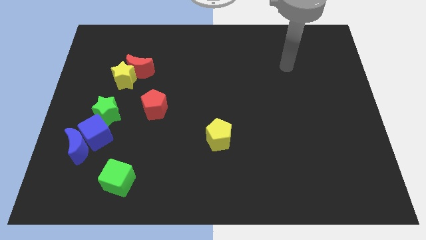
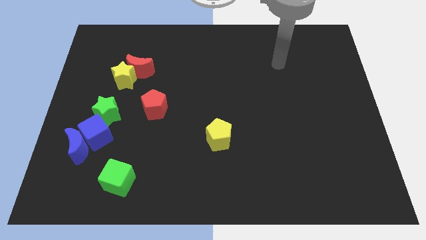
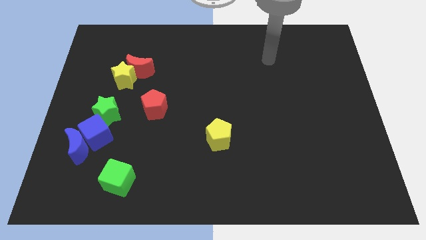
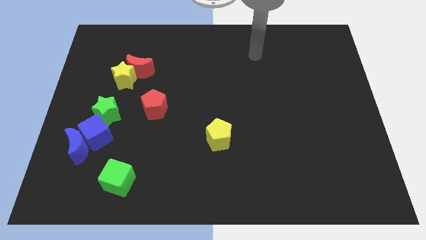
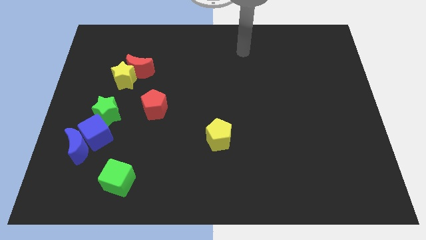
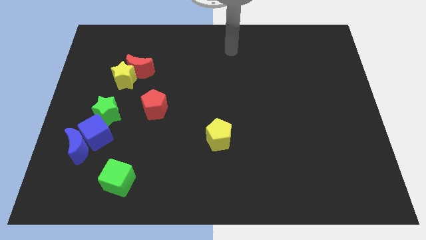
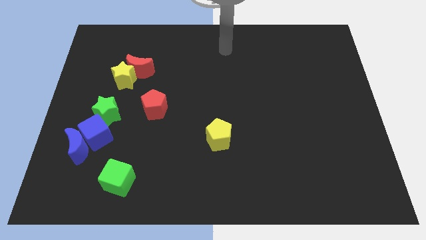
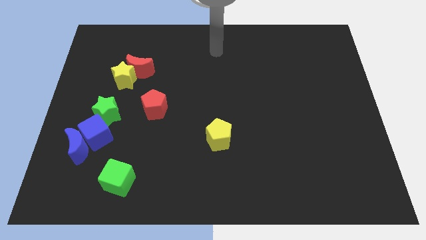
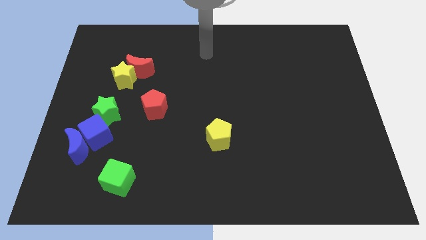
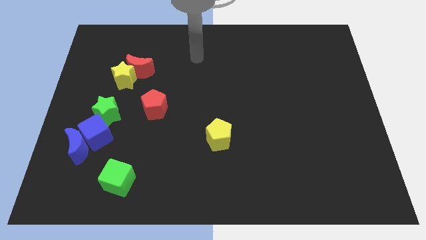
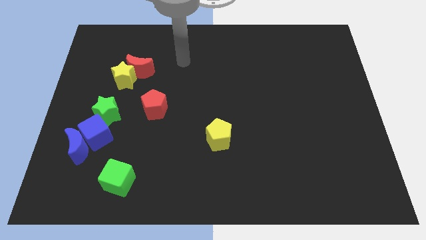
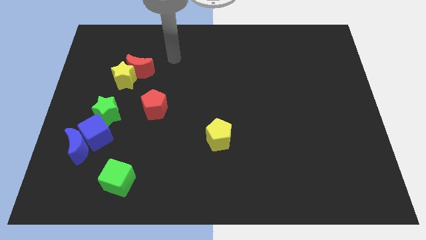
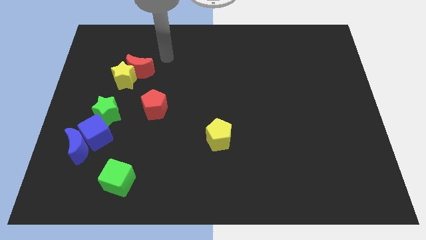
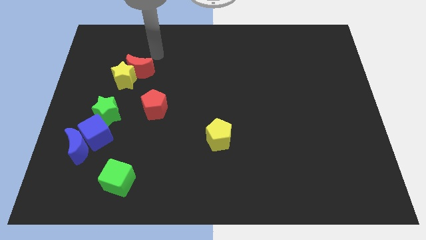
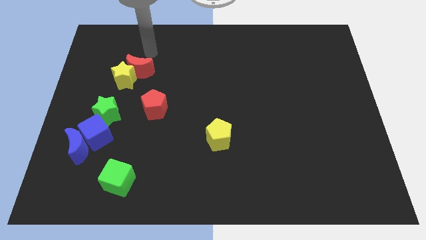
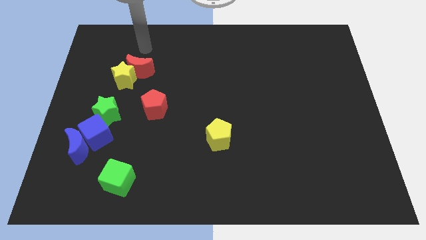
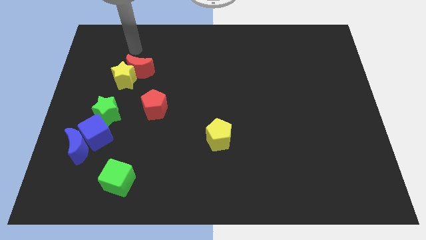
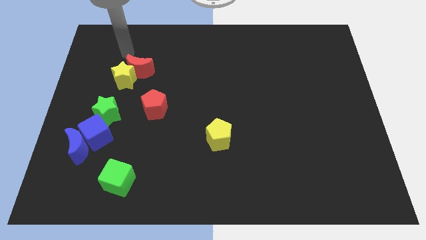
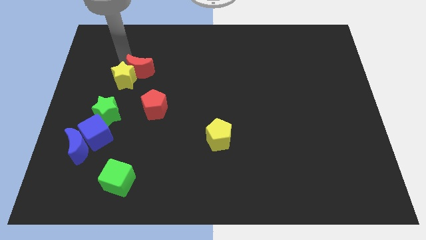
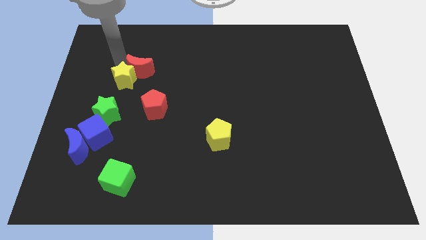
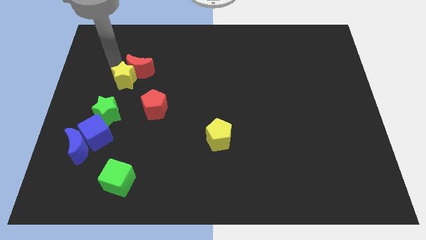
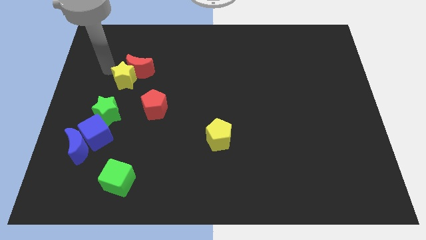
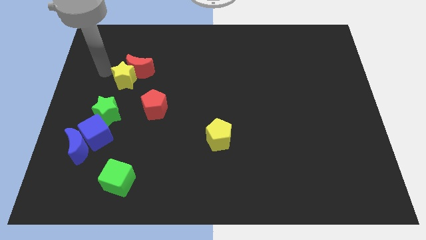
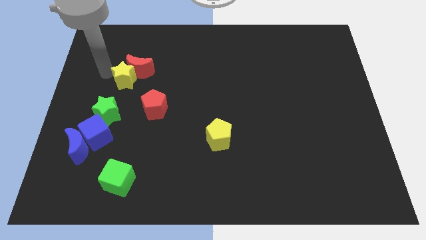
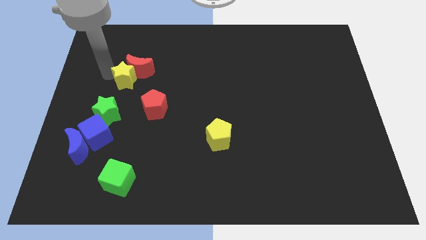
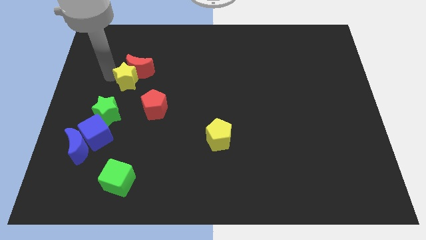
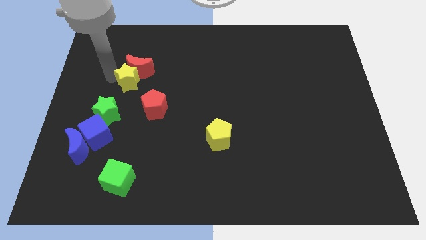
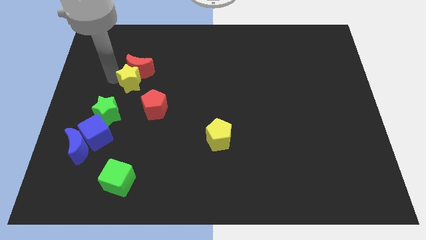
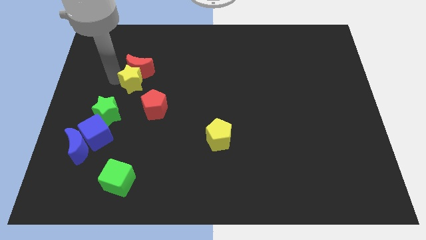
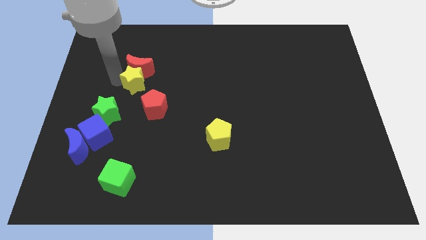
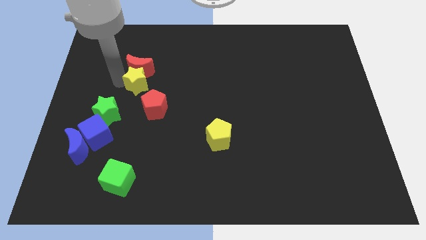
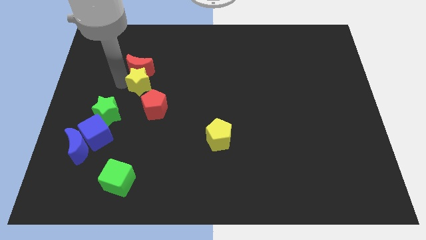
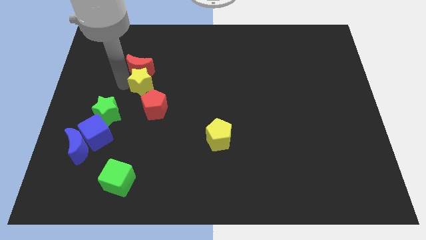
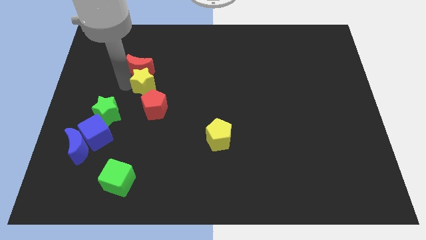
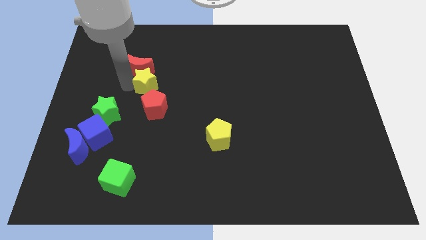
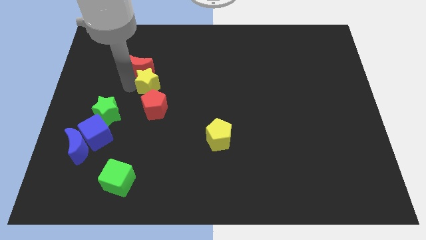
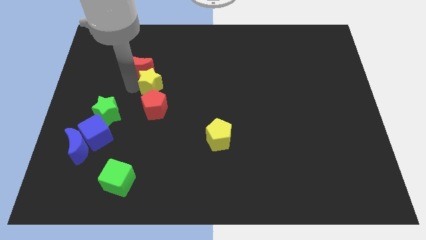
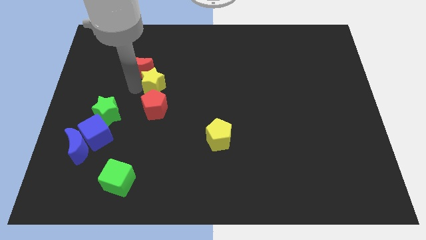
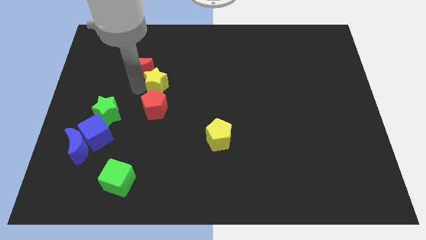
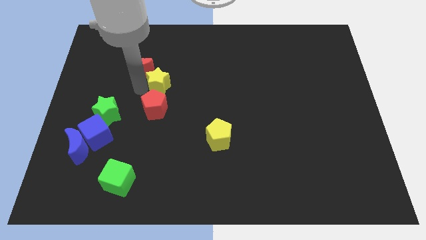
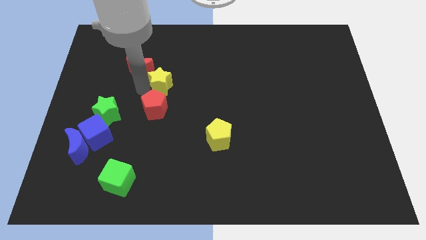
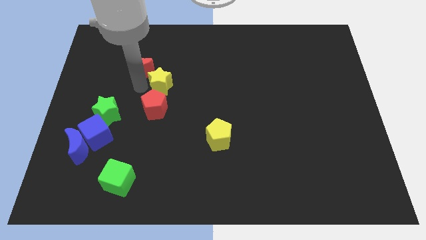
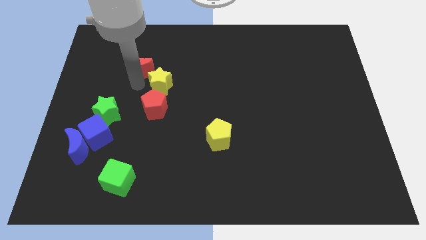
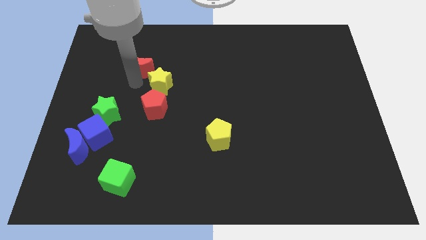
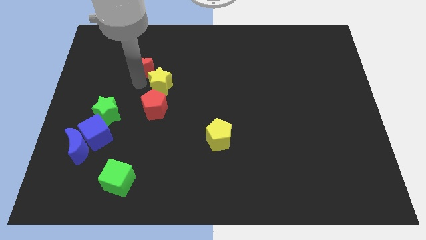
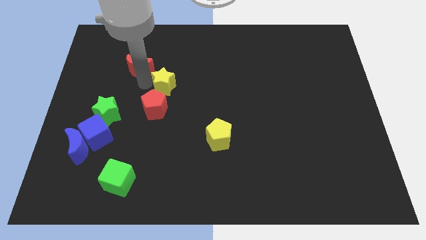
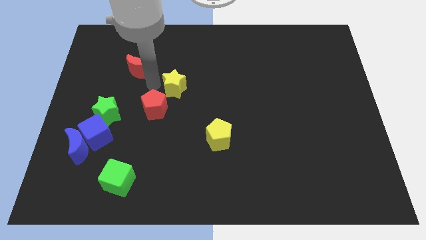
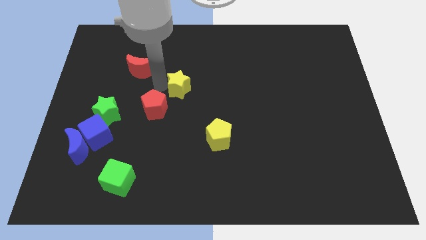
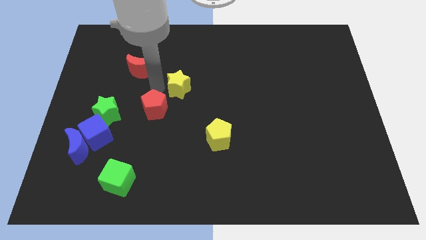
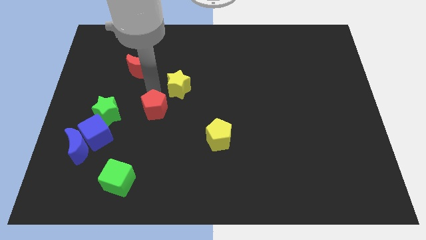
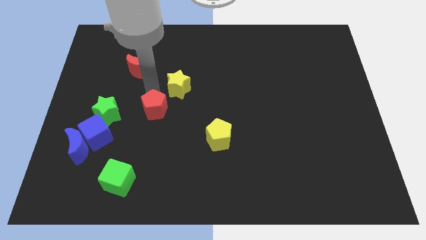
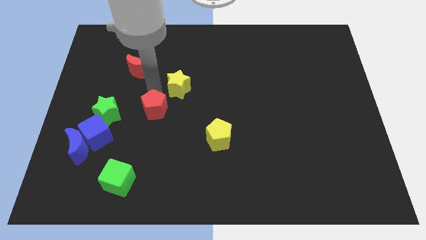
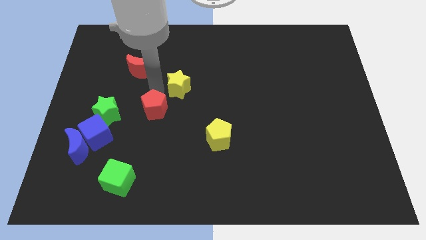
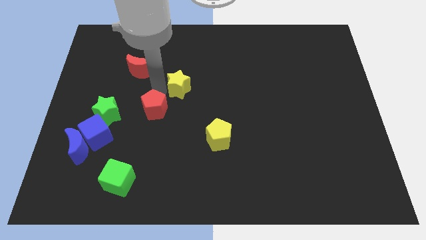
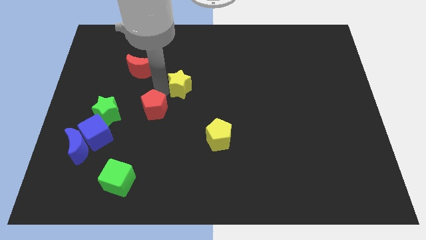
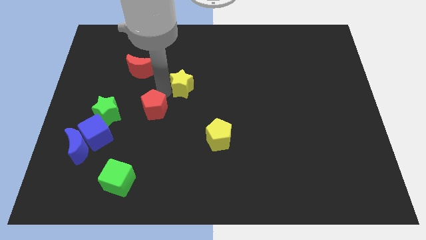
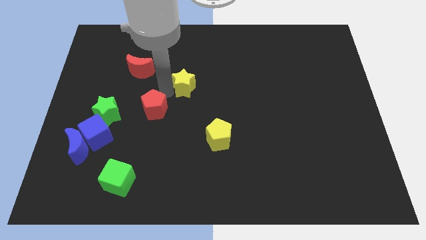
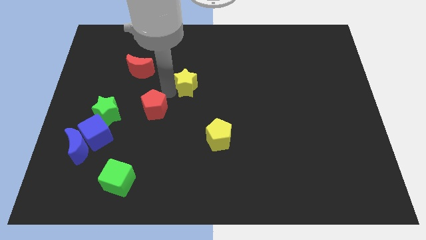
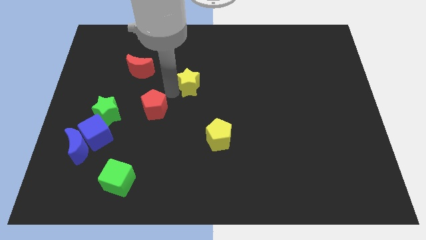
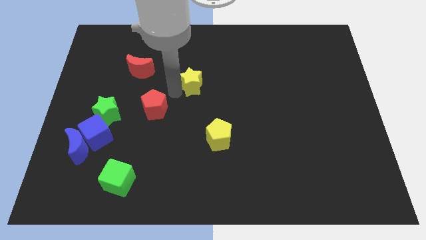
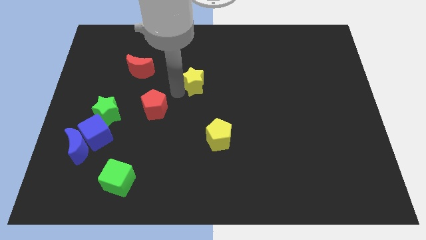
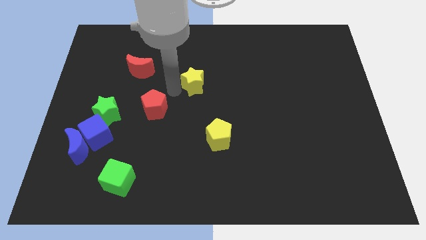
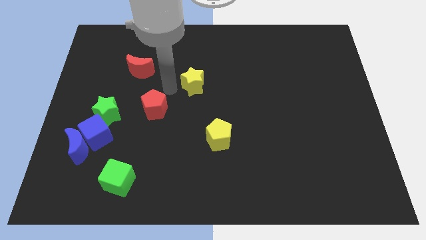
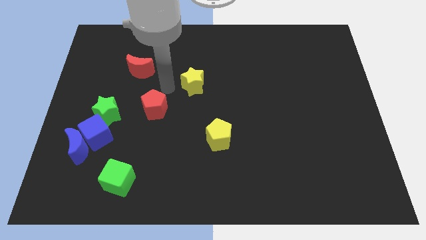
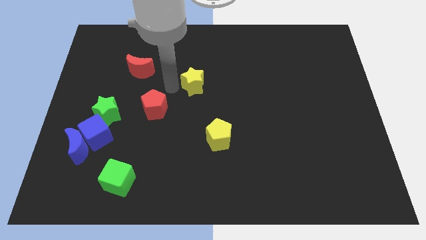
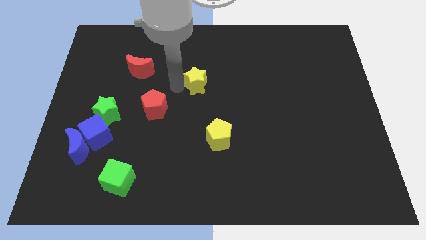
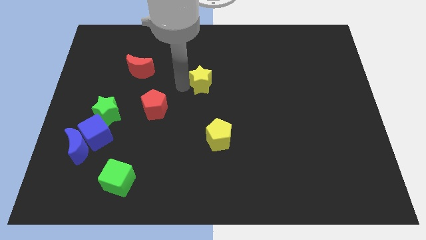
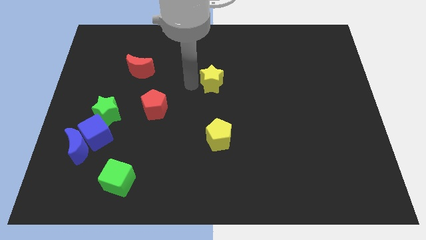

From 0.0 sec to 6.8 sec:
push the yellow star right

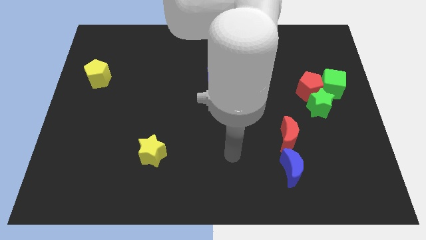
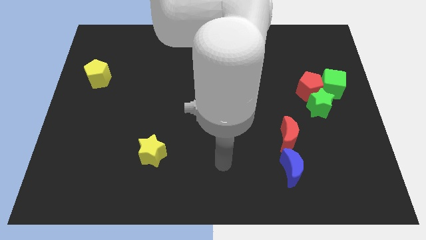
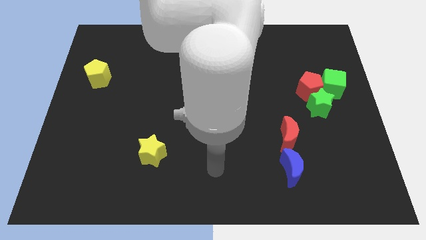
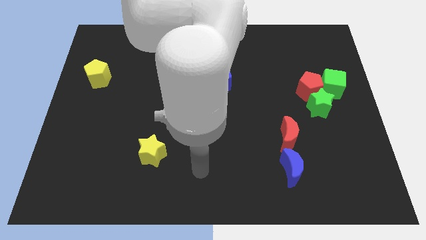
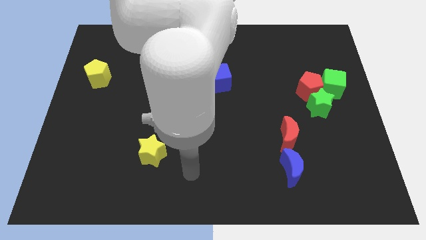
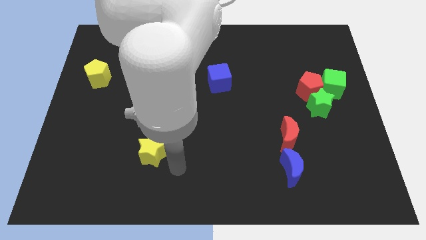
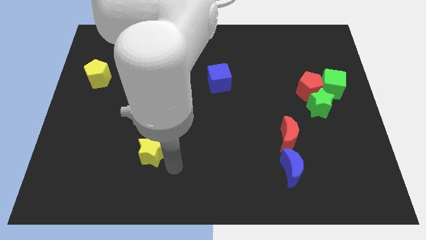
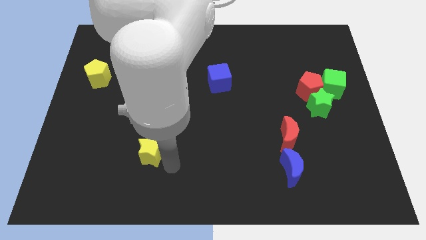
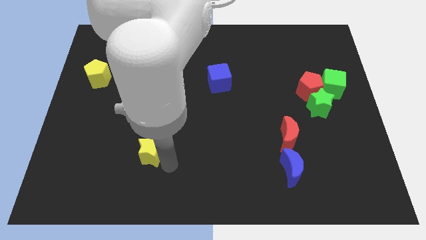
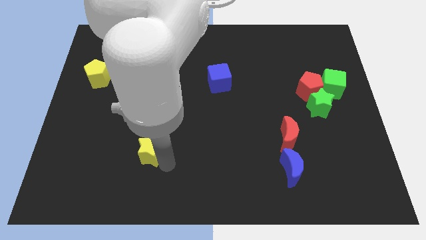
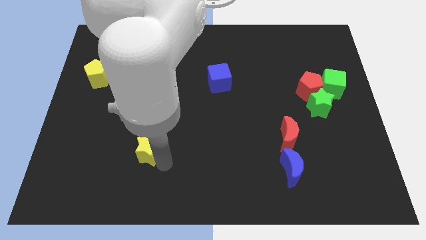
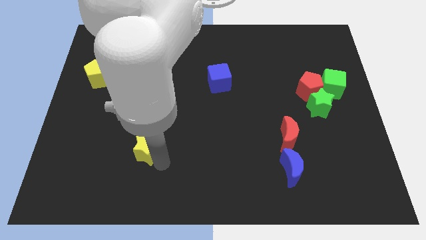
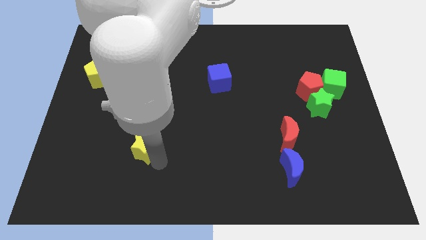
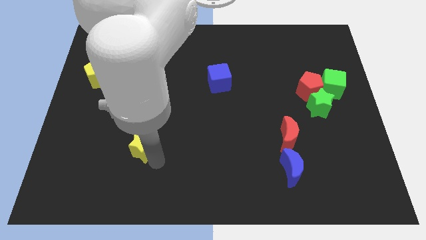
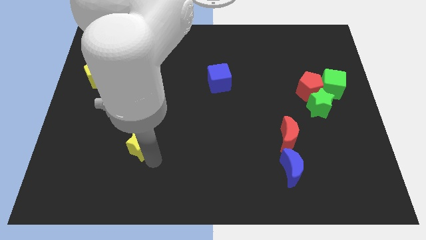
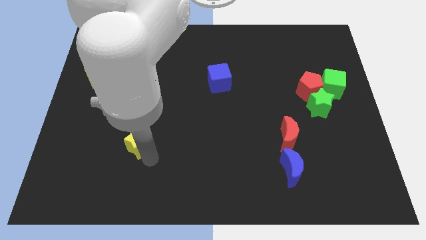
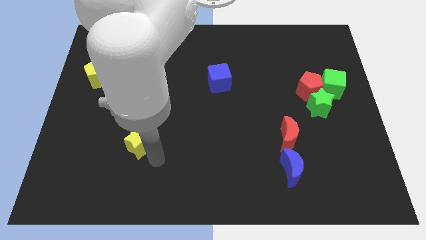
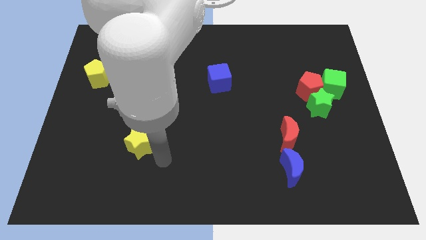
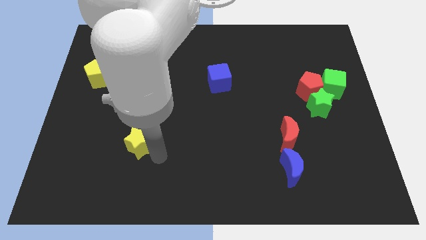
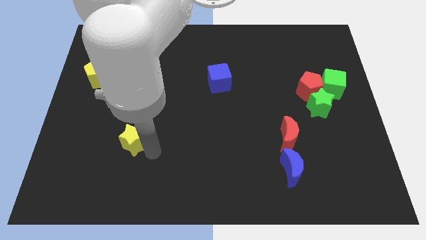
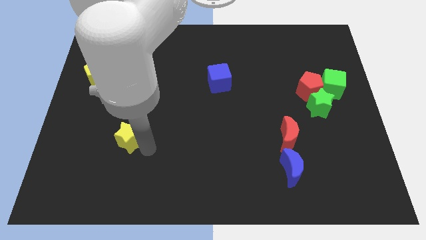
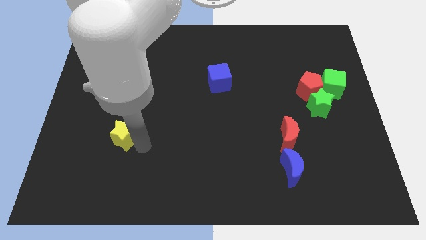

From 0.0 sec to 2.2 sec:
slightly move the yellow star up and then to the left
